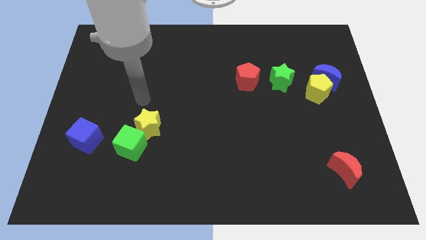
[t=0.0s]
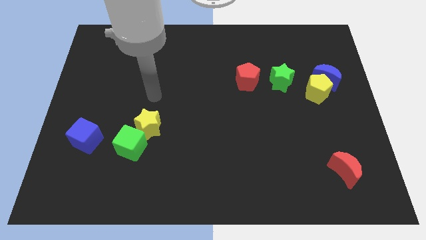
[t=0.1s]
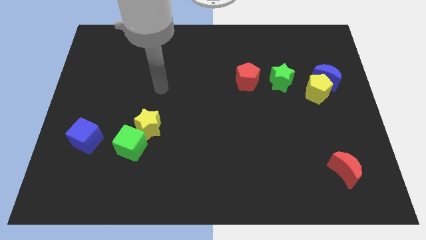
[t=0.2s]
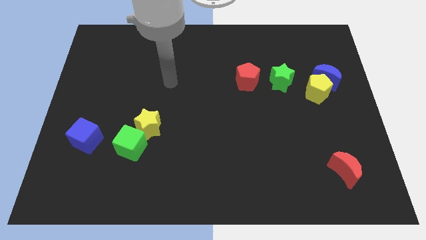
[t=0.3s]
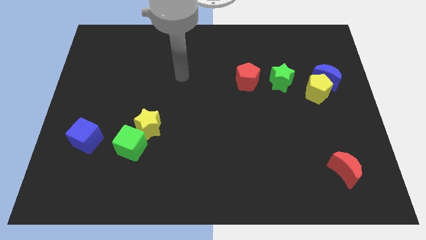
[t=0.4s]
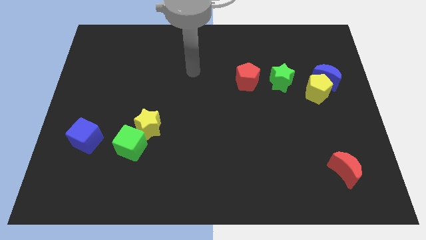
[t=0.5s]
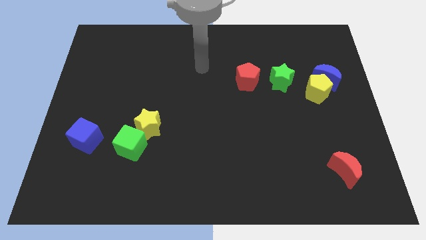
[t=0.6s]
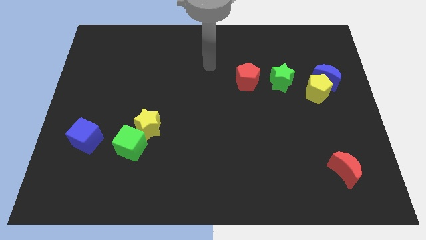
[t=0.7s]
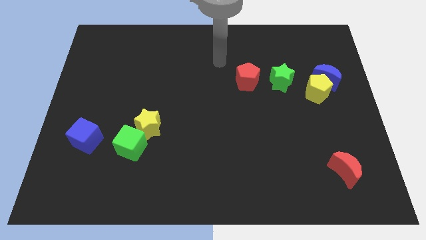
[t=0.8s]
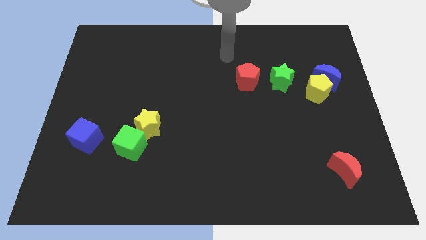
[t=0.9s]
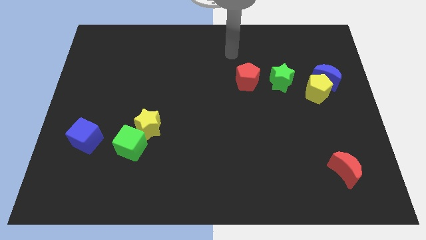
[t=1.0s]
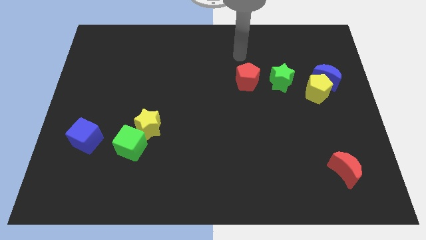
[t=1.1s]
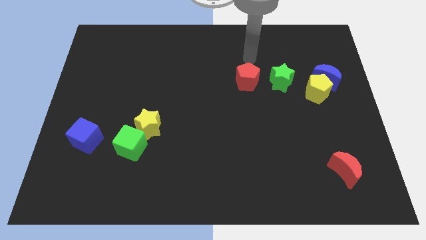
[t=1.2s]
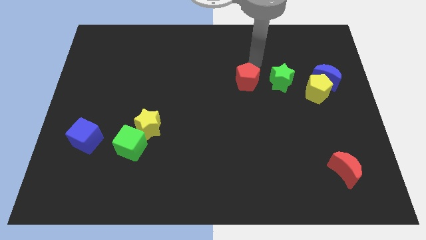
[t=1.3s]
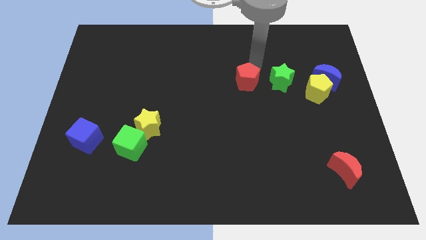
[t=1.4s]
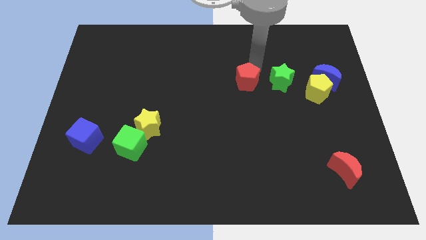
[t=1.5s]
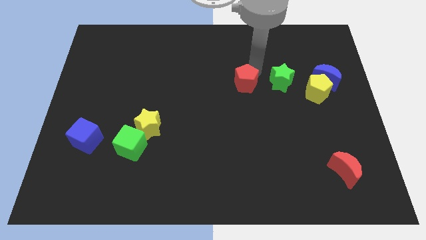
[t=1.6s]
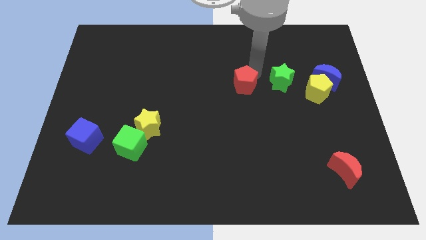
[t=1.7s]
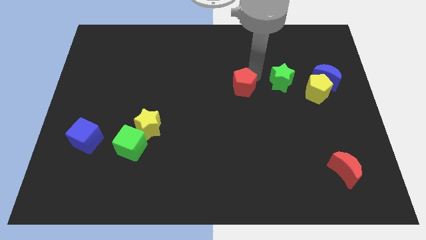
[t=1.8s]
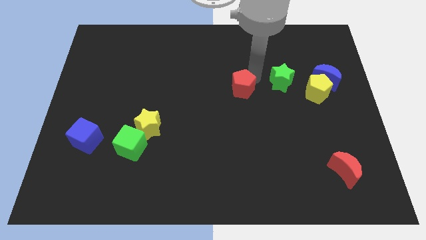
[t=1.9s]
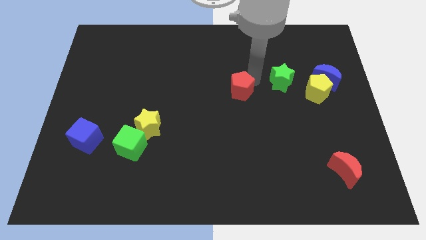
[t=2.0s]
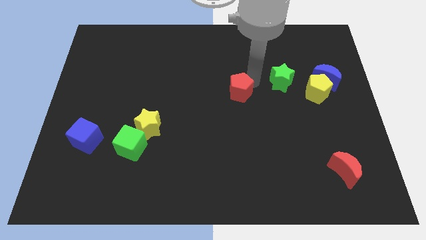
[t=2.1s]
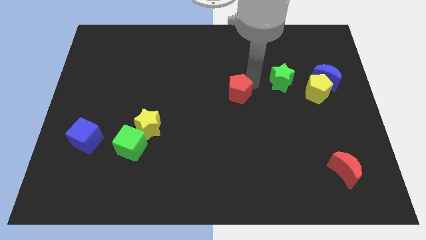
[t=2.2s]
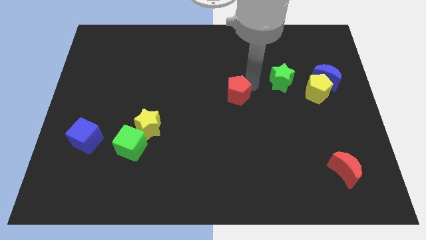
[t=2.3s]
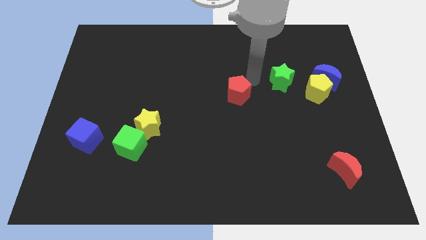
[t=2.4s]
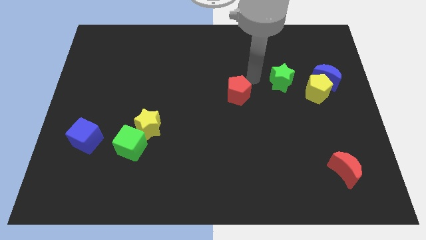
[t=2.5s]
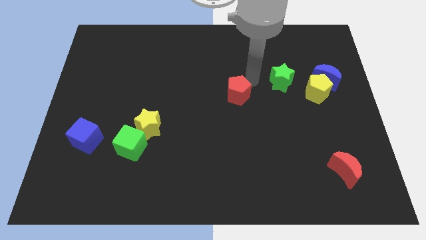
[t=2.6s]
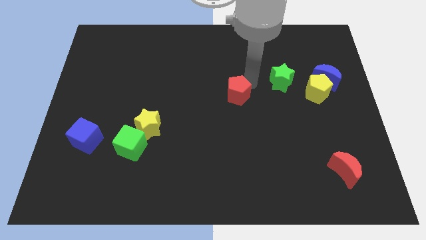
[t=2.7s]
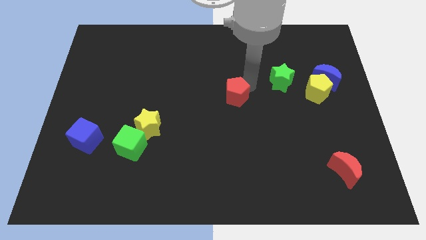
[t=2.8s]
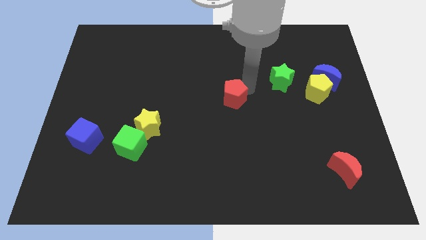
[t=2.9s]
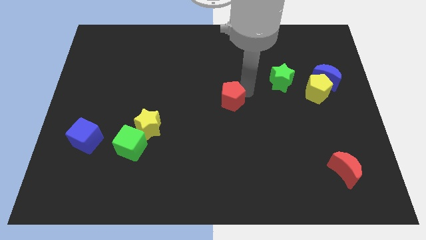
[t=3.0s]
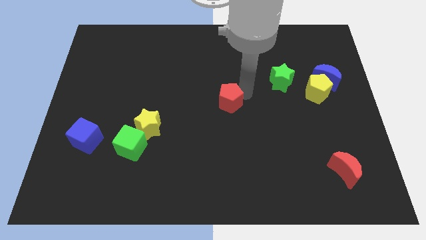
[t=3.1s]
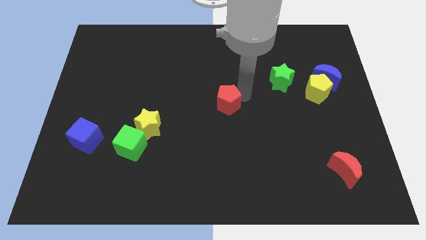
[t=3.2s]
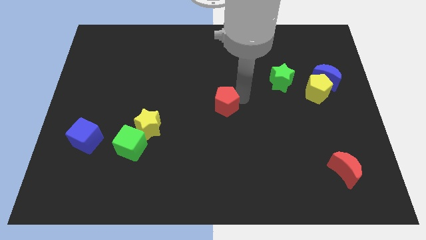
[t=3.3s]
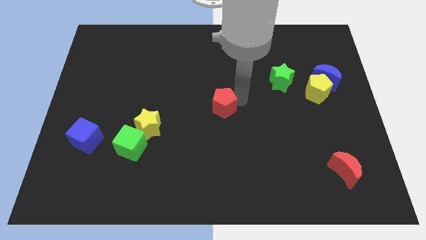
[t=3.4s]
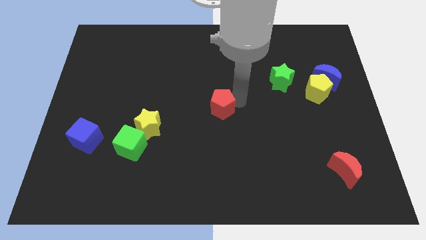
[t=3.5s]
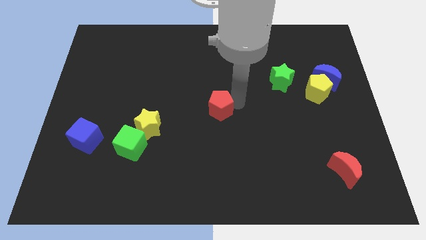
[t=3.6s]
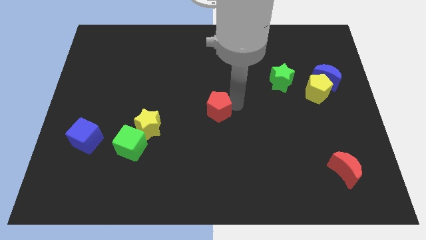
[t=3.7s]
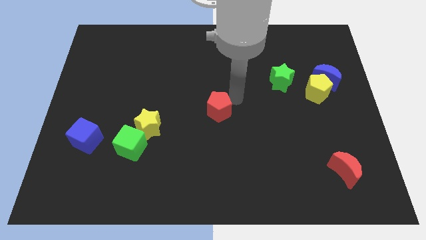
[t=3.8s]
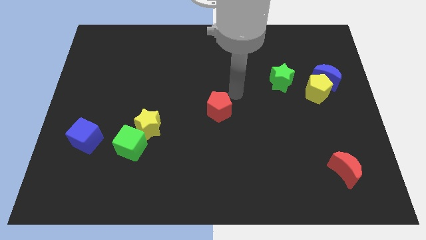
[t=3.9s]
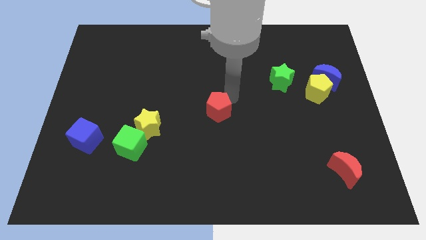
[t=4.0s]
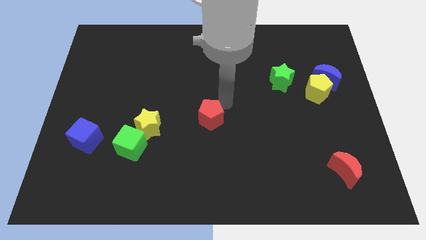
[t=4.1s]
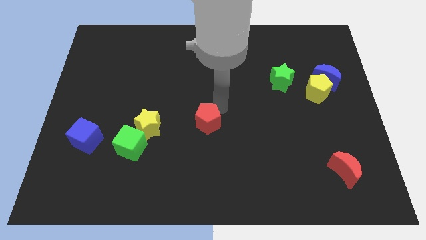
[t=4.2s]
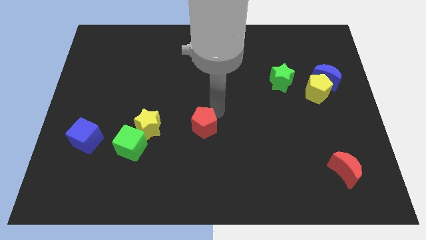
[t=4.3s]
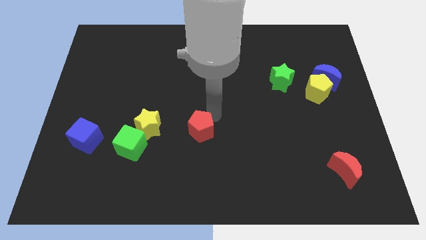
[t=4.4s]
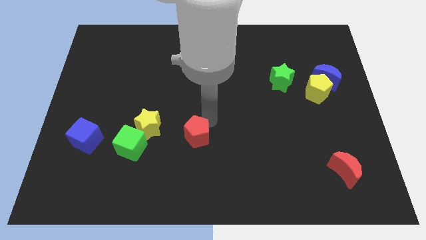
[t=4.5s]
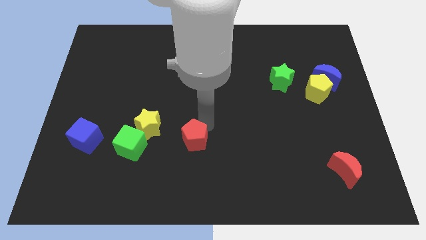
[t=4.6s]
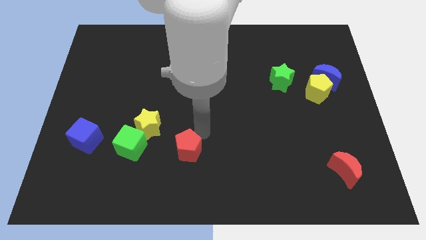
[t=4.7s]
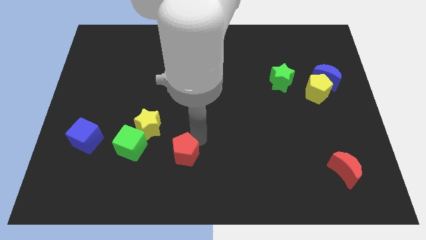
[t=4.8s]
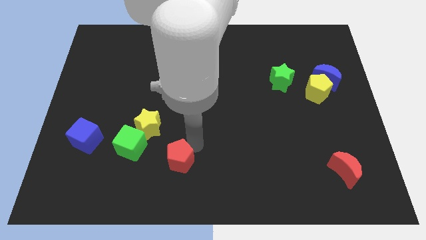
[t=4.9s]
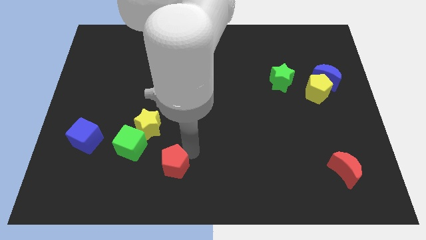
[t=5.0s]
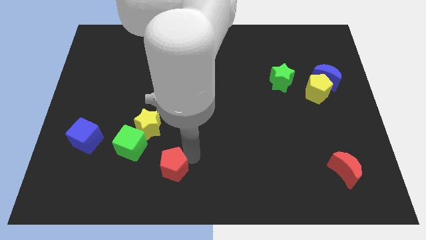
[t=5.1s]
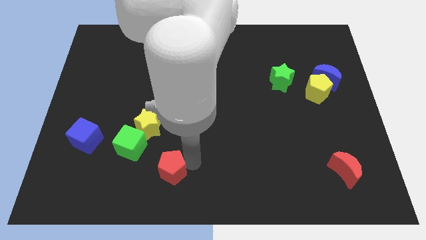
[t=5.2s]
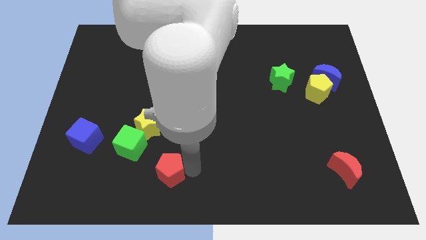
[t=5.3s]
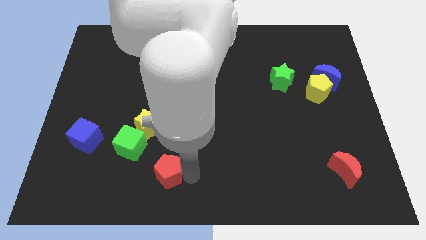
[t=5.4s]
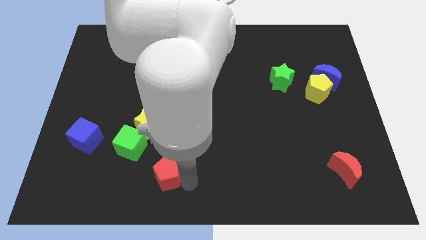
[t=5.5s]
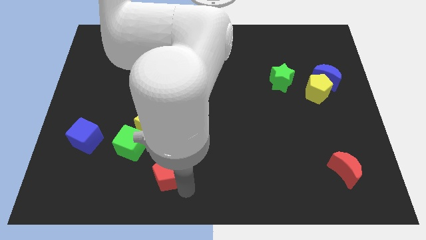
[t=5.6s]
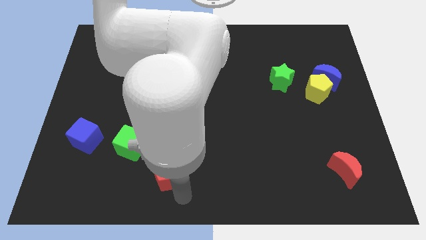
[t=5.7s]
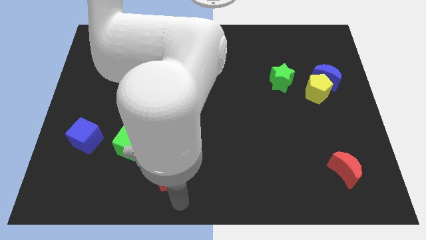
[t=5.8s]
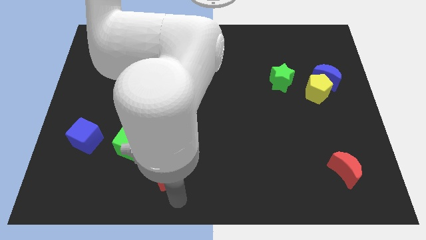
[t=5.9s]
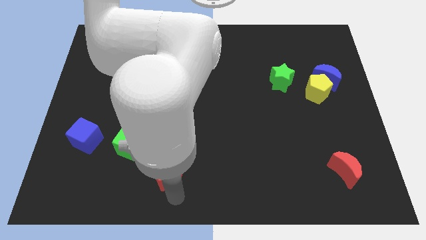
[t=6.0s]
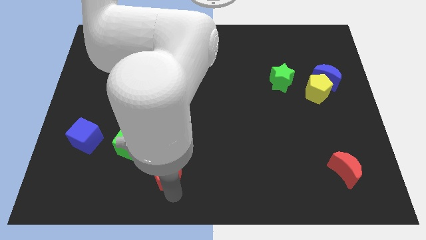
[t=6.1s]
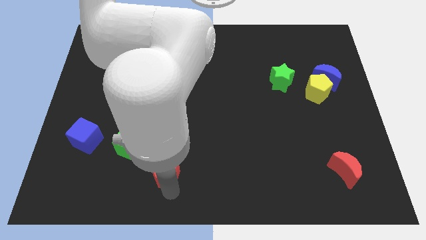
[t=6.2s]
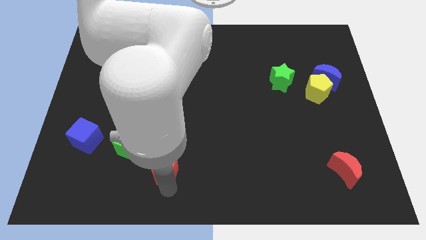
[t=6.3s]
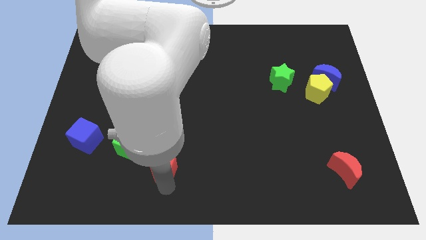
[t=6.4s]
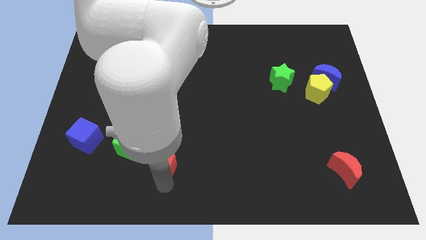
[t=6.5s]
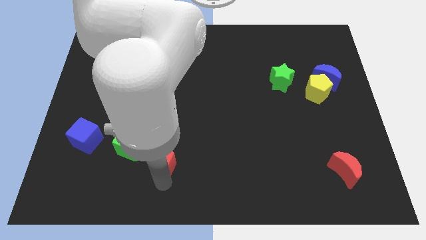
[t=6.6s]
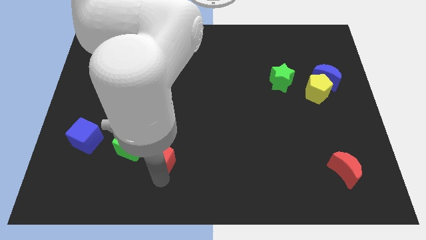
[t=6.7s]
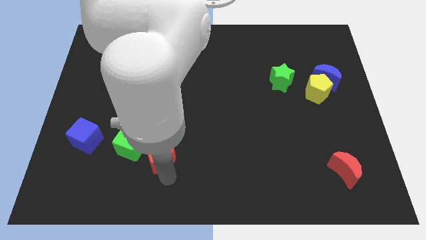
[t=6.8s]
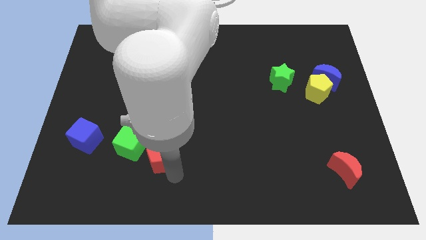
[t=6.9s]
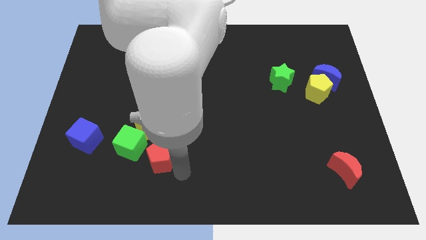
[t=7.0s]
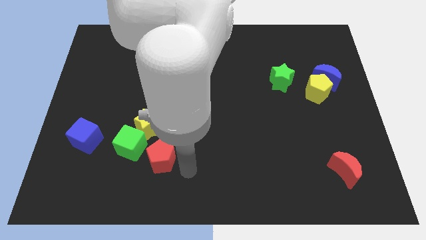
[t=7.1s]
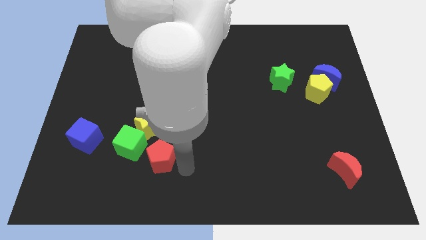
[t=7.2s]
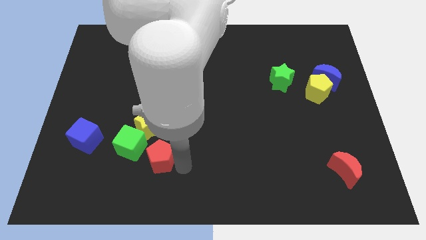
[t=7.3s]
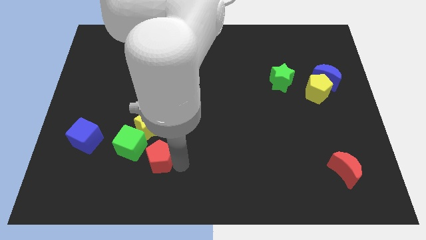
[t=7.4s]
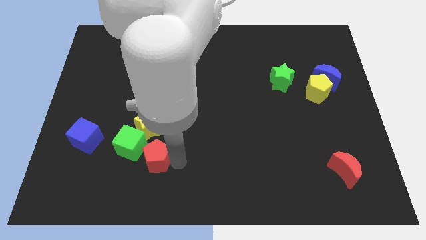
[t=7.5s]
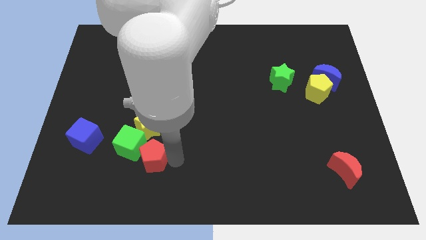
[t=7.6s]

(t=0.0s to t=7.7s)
push the red pentagon to the green cube
